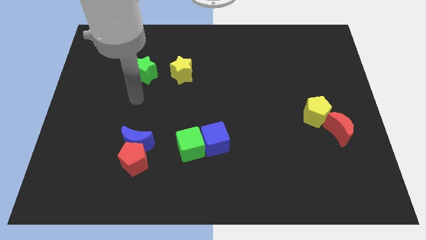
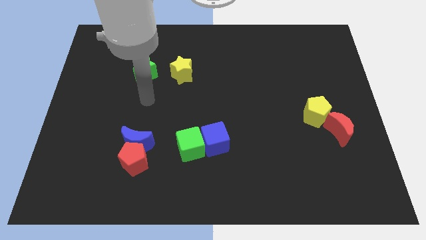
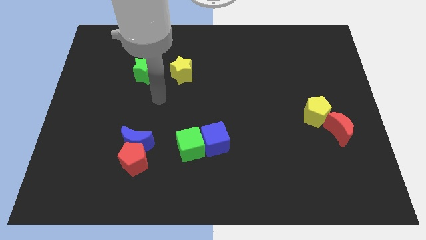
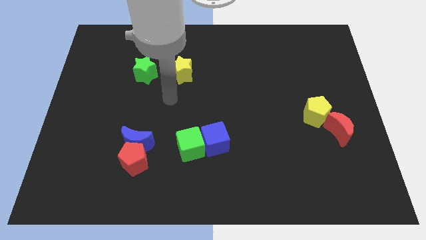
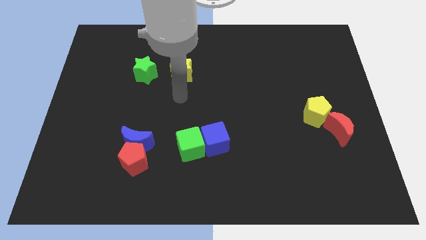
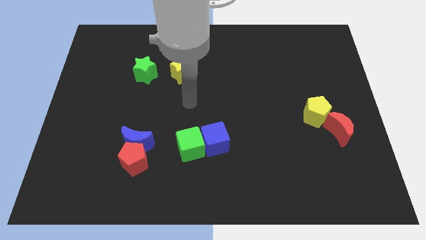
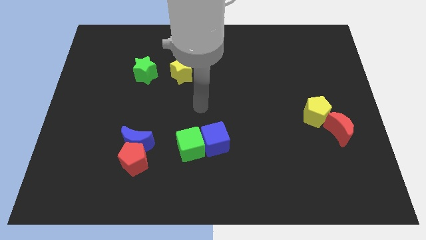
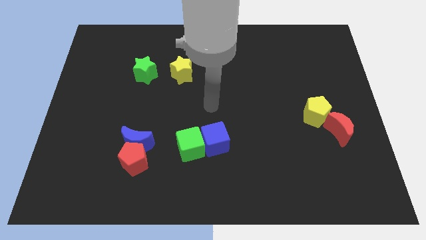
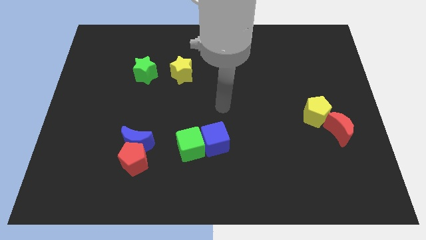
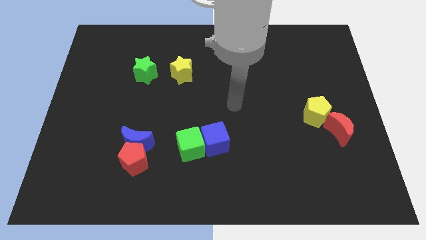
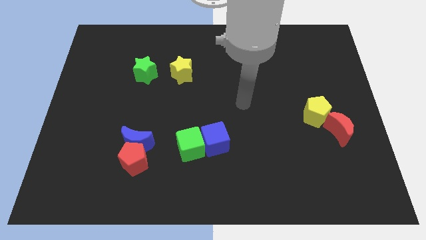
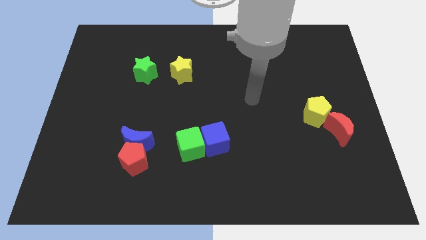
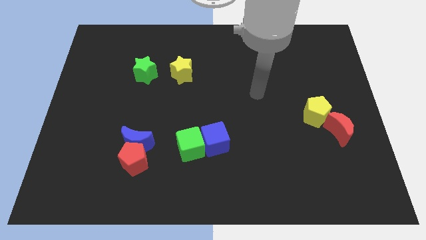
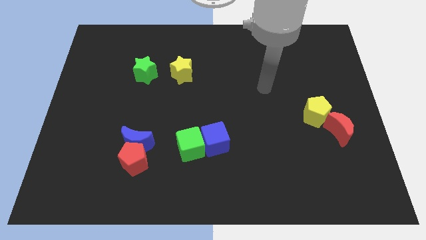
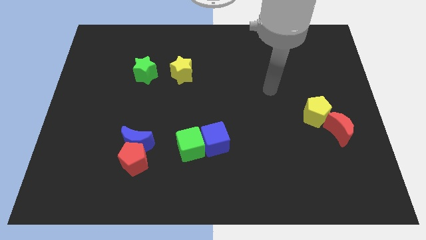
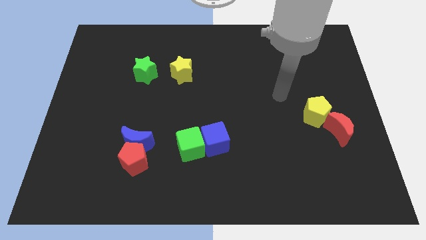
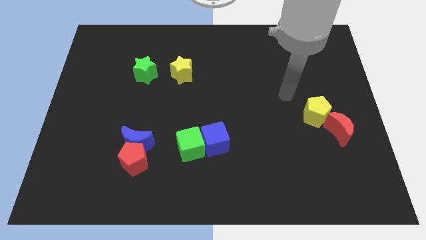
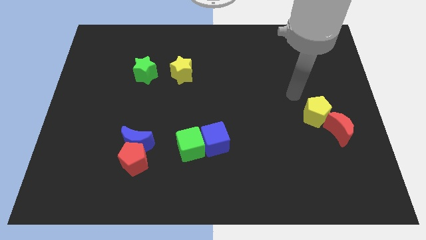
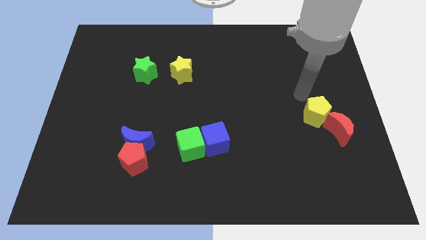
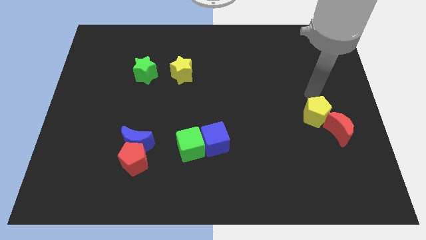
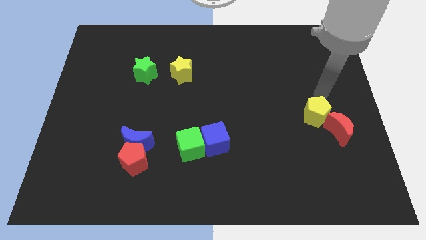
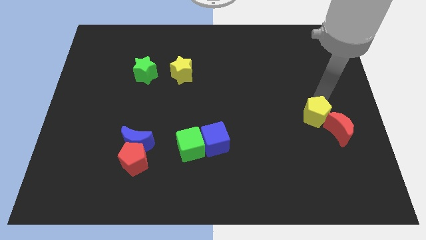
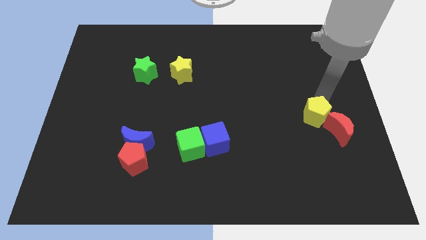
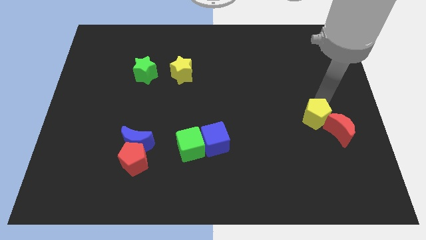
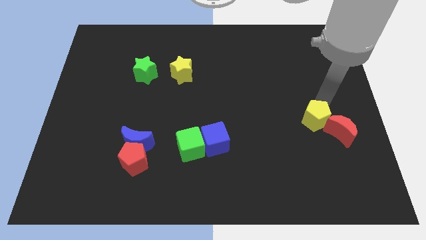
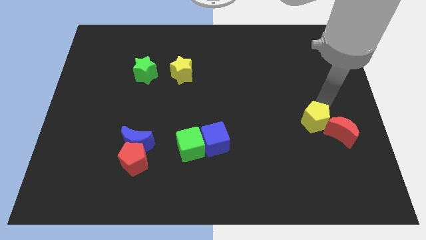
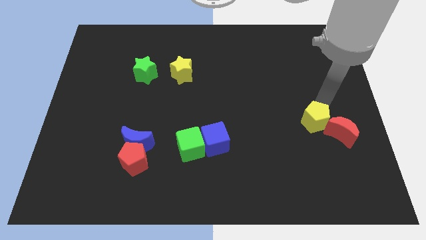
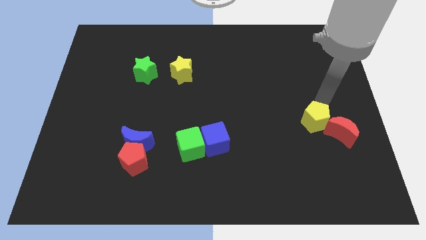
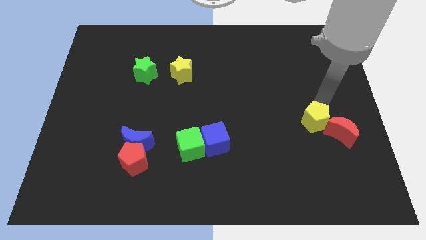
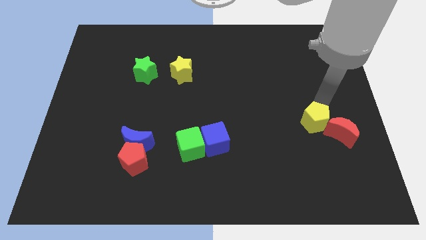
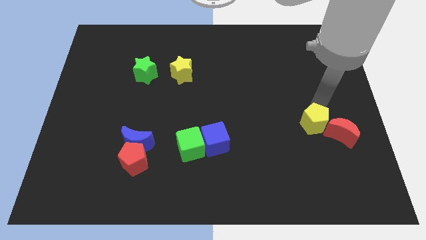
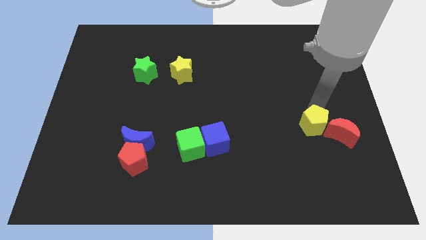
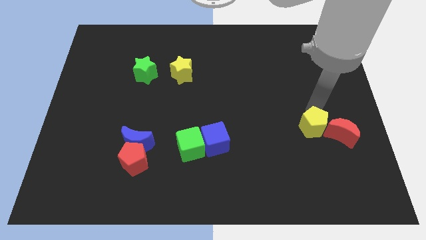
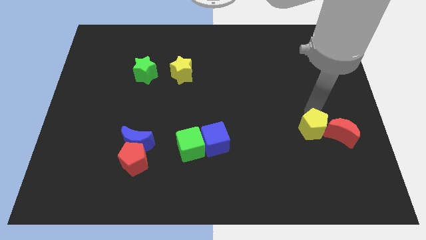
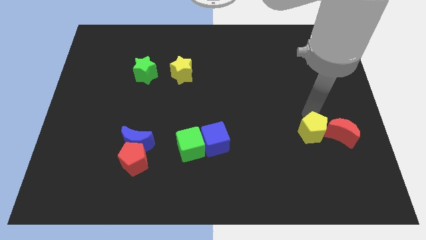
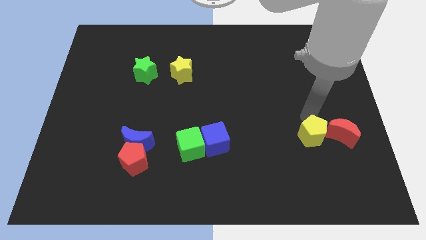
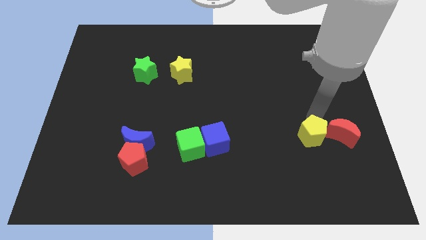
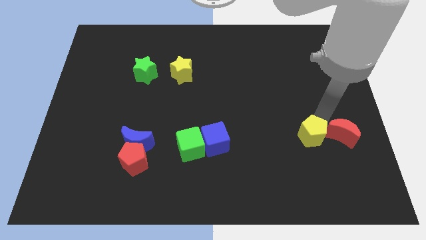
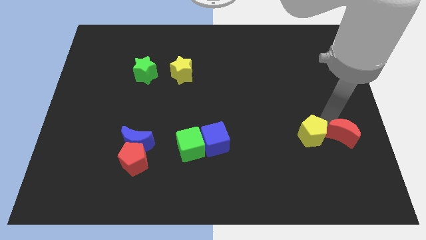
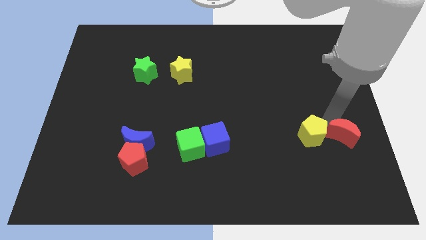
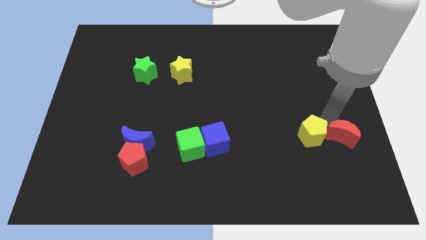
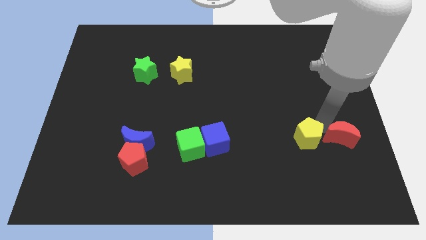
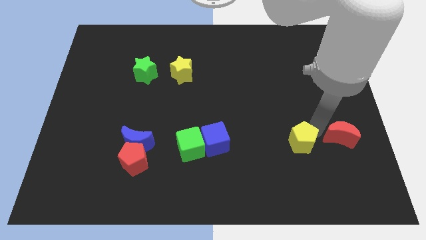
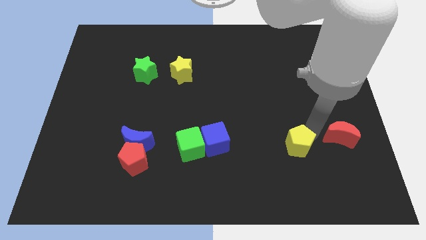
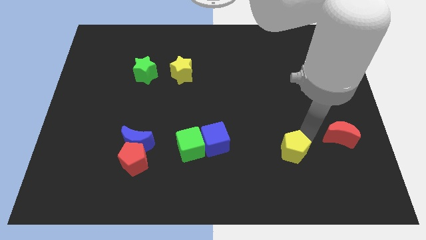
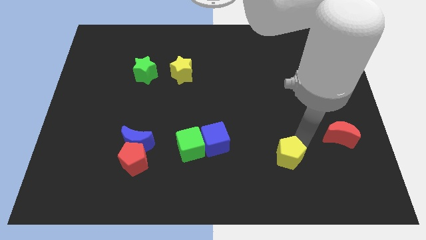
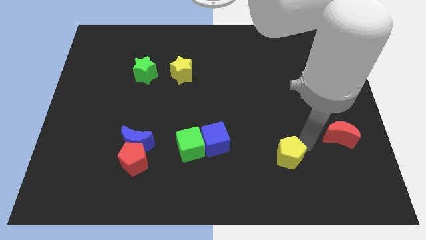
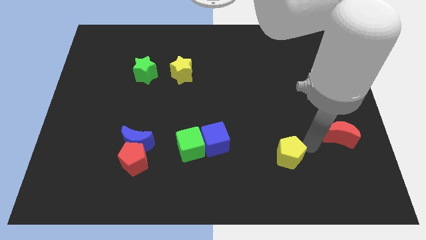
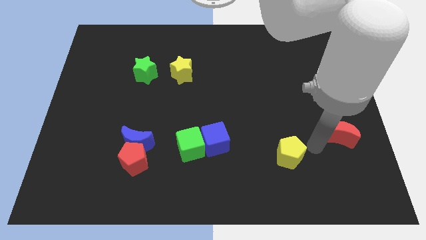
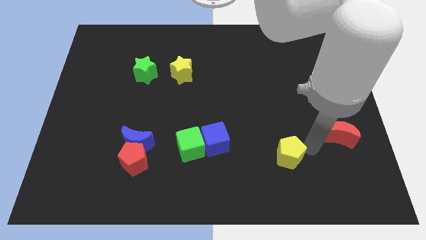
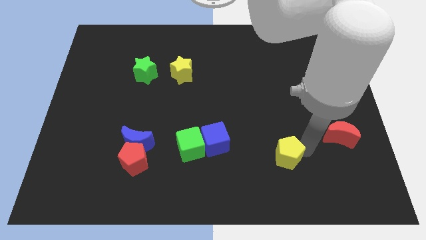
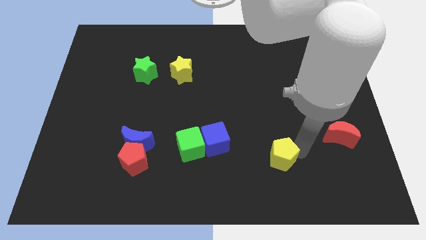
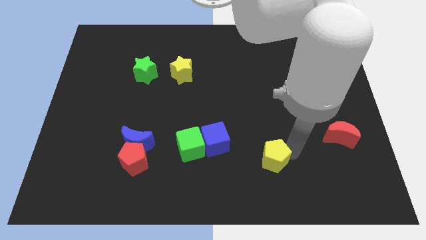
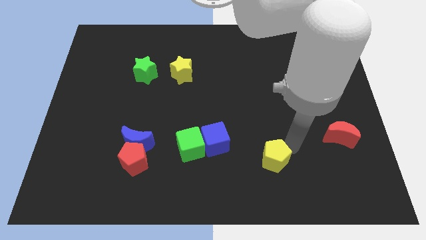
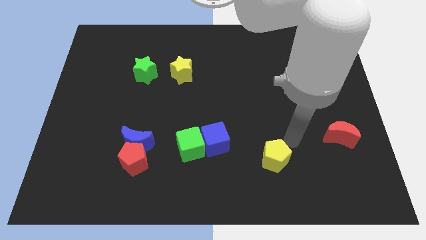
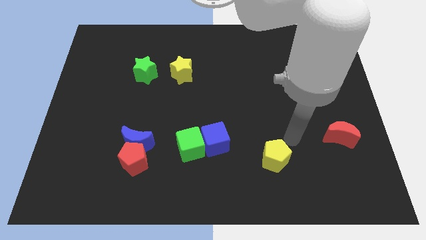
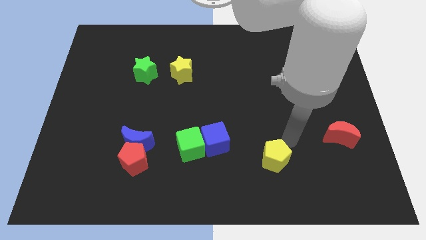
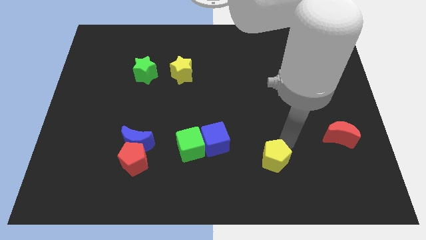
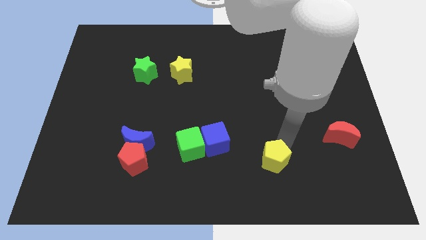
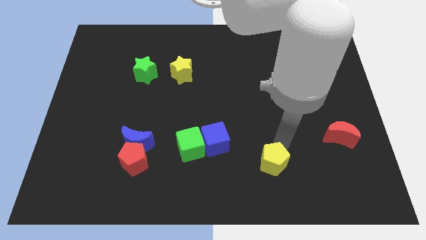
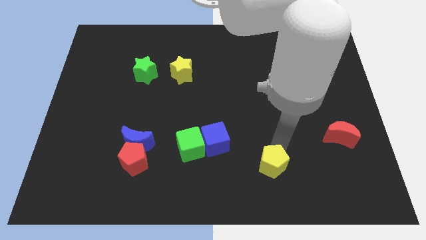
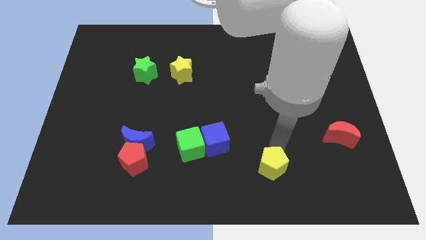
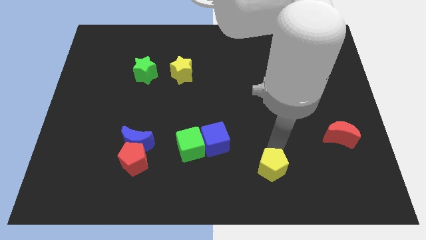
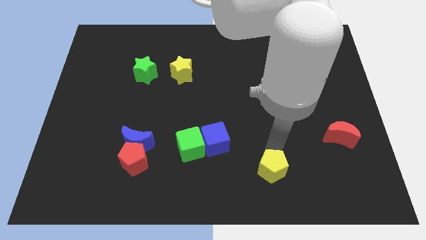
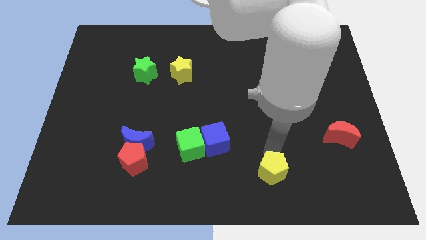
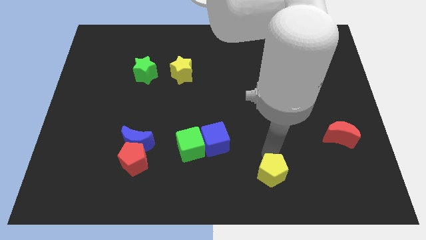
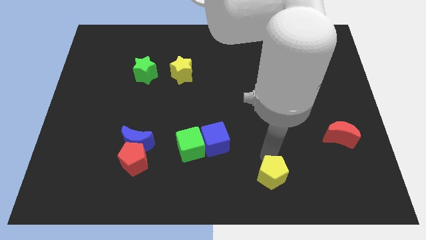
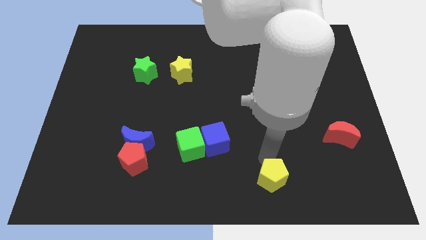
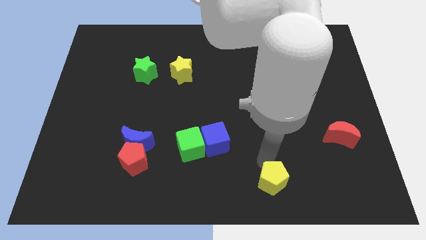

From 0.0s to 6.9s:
push the yellow pentagon to the bottom
